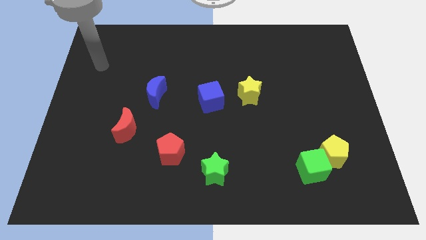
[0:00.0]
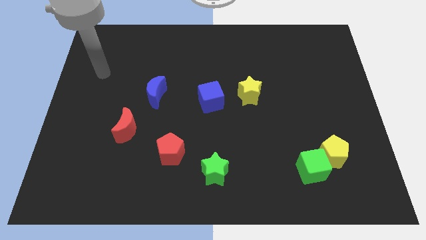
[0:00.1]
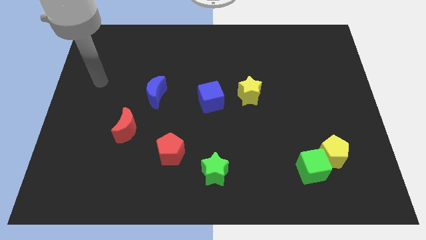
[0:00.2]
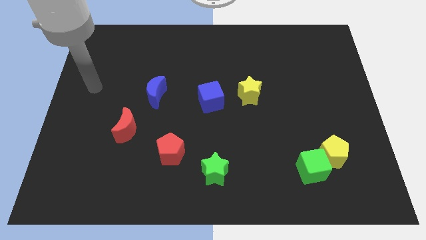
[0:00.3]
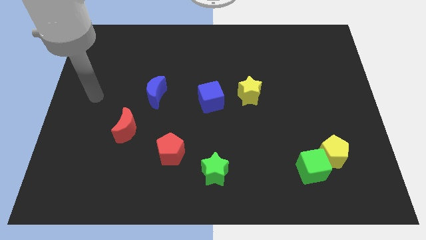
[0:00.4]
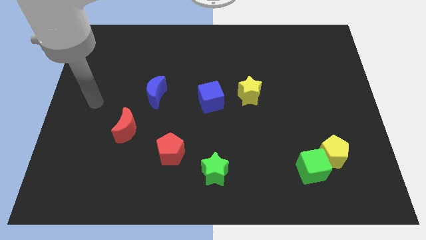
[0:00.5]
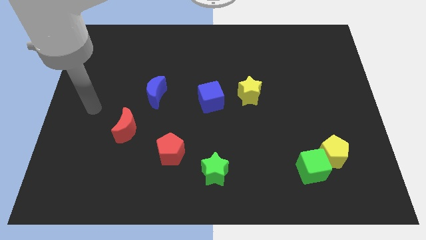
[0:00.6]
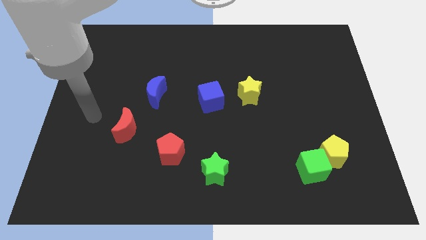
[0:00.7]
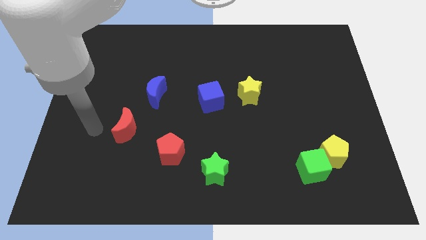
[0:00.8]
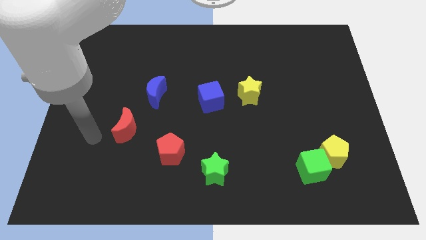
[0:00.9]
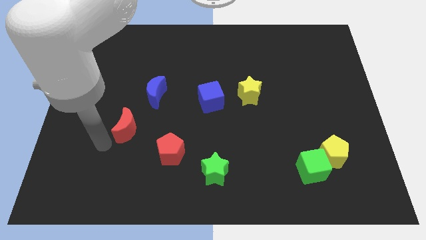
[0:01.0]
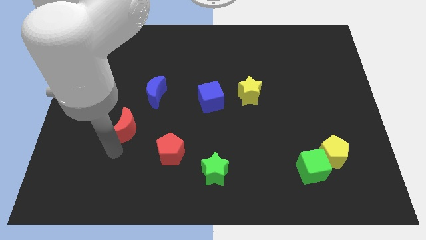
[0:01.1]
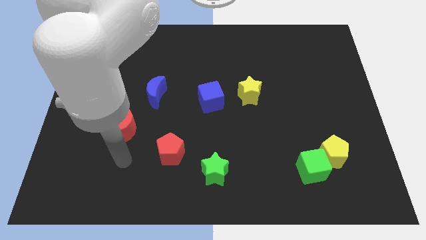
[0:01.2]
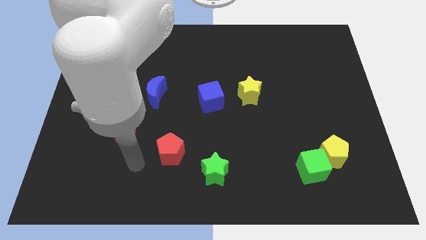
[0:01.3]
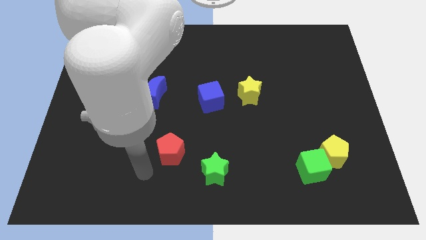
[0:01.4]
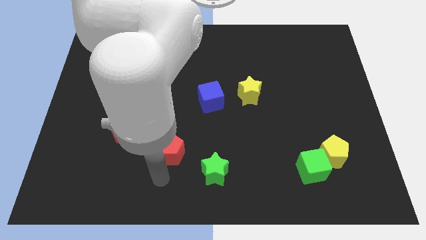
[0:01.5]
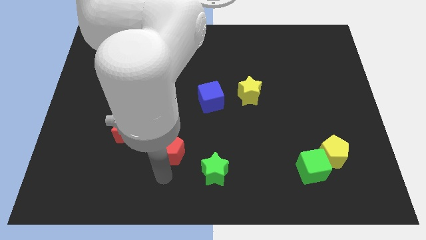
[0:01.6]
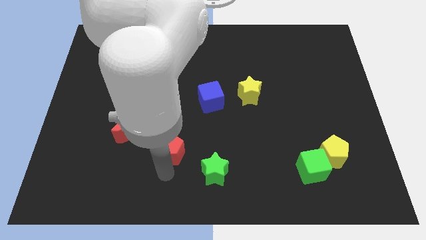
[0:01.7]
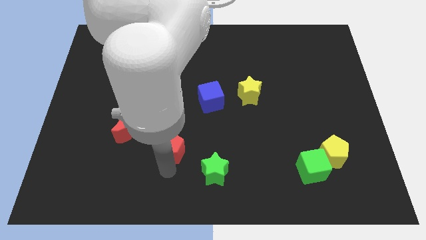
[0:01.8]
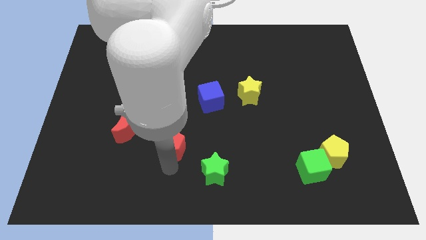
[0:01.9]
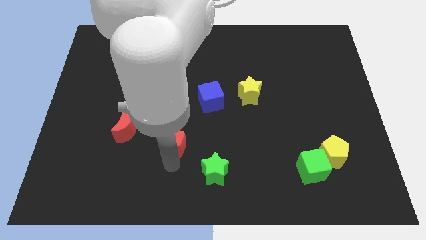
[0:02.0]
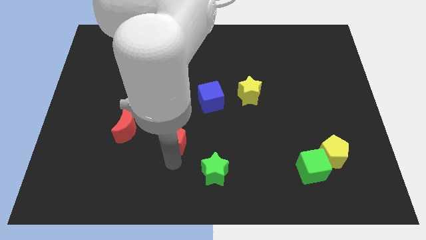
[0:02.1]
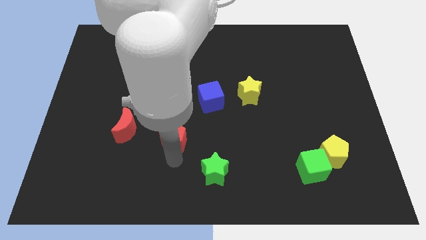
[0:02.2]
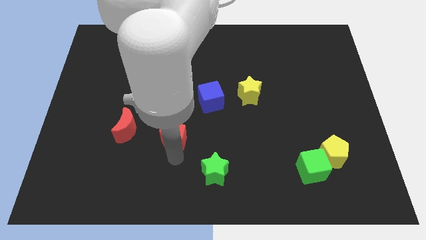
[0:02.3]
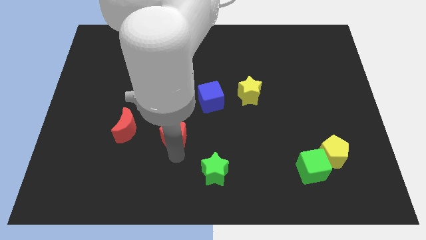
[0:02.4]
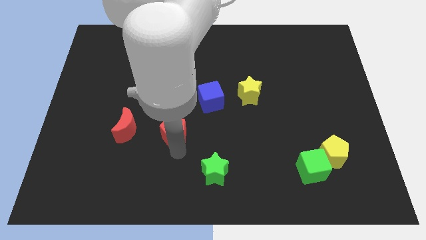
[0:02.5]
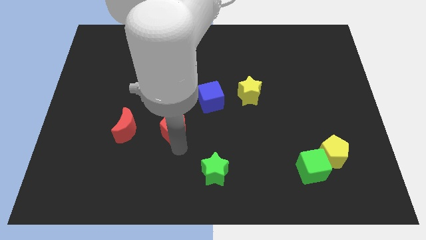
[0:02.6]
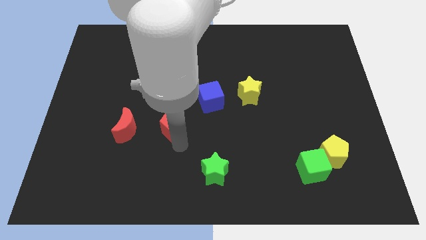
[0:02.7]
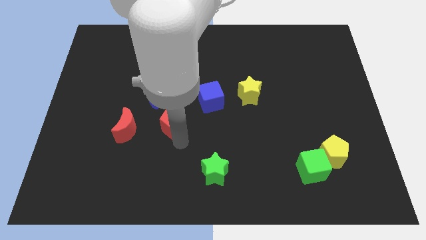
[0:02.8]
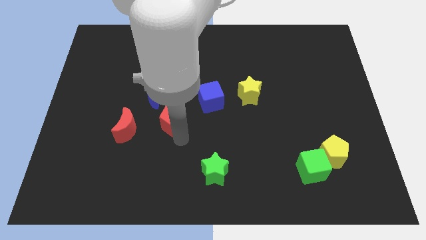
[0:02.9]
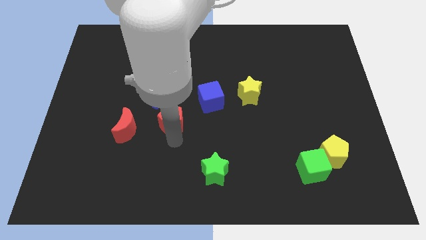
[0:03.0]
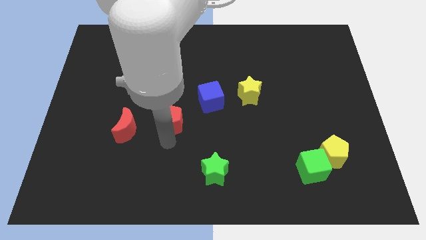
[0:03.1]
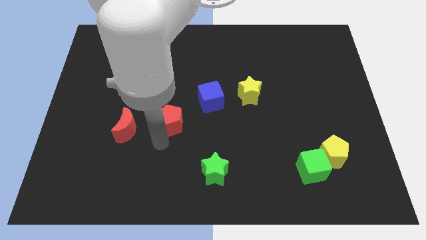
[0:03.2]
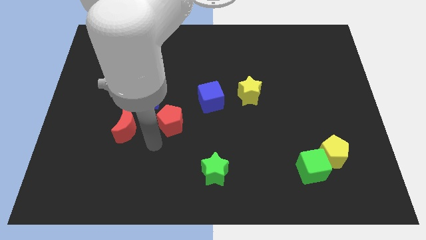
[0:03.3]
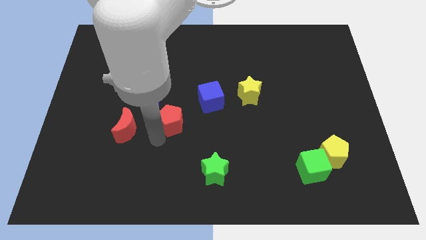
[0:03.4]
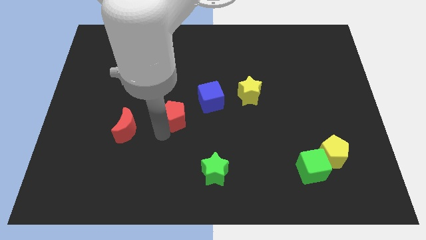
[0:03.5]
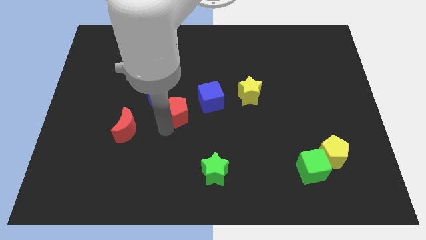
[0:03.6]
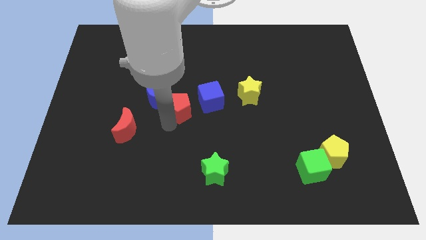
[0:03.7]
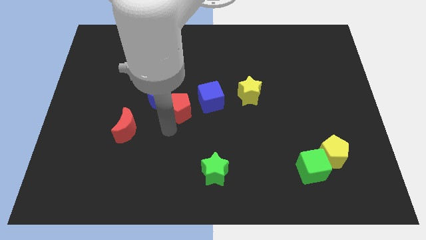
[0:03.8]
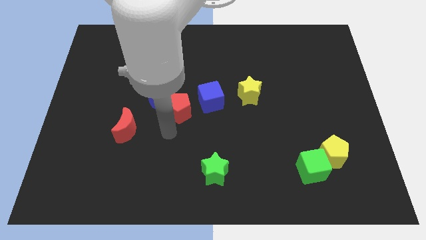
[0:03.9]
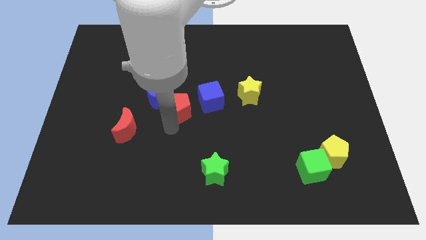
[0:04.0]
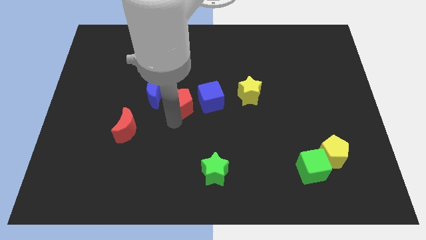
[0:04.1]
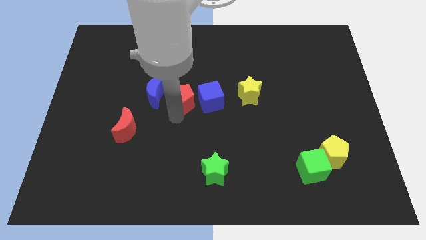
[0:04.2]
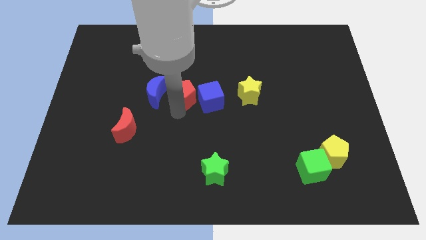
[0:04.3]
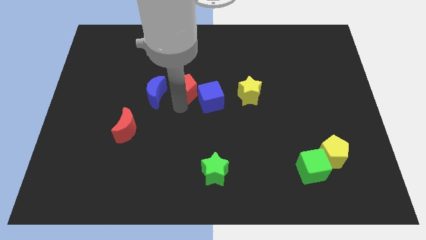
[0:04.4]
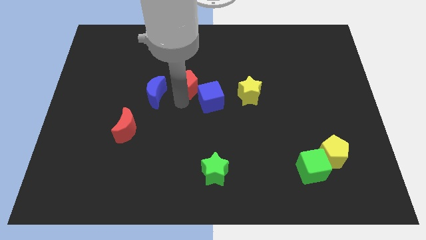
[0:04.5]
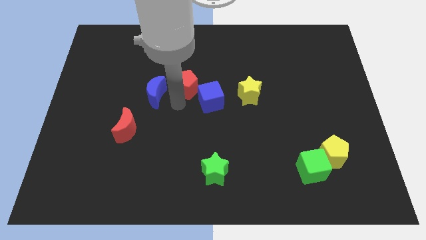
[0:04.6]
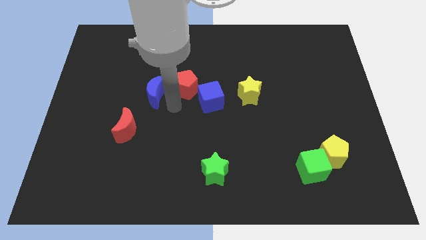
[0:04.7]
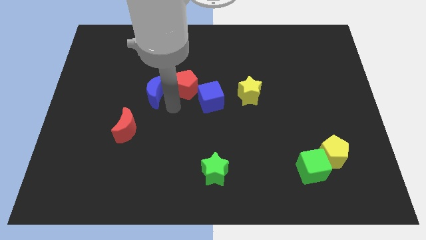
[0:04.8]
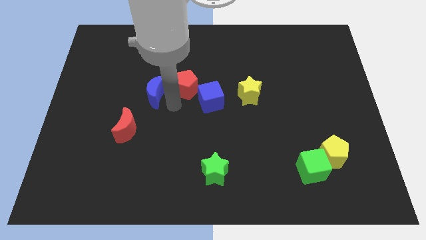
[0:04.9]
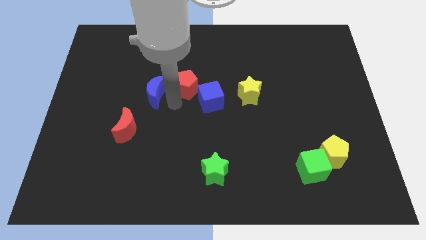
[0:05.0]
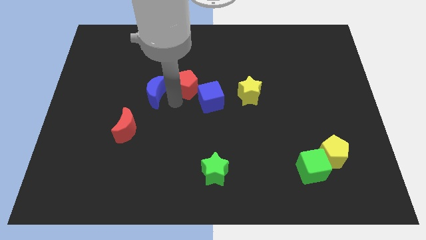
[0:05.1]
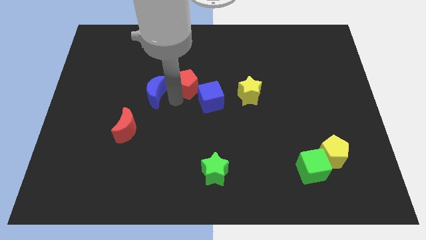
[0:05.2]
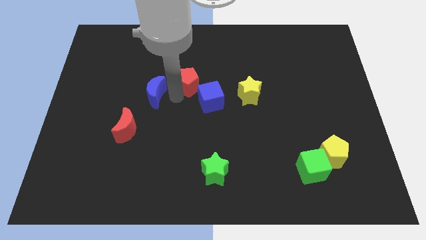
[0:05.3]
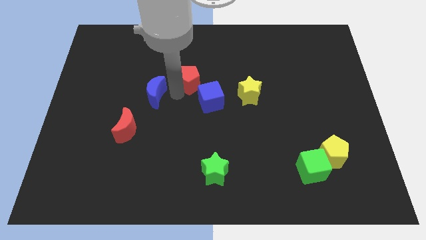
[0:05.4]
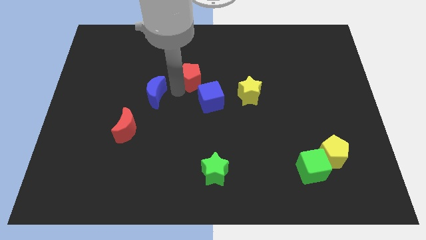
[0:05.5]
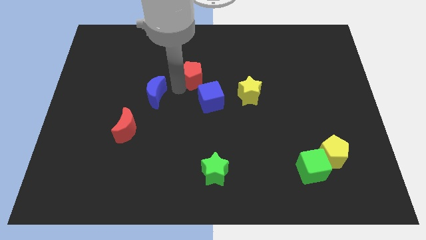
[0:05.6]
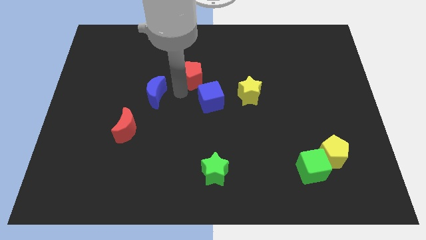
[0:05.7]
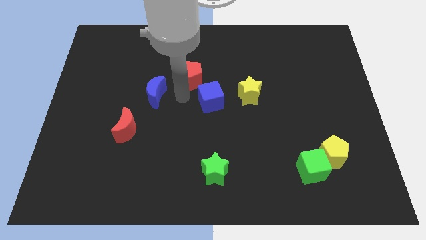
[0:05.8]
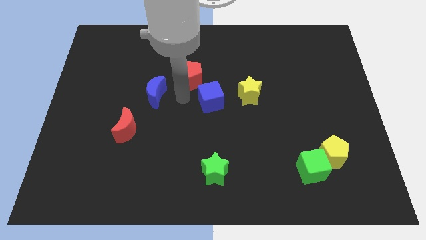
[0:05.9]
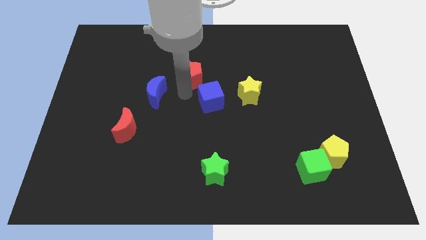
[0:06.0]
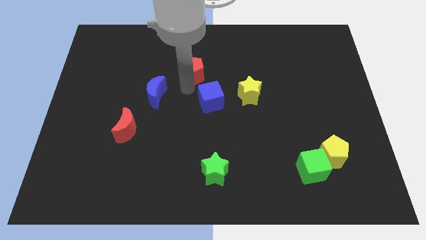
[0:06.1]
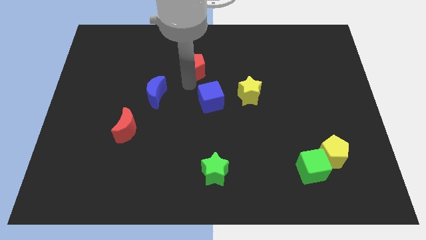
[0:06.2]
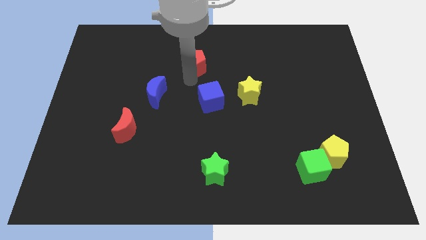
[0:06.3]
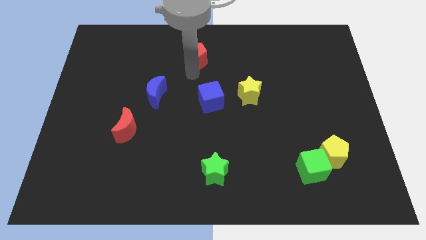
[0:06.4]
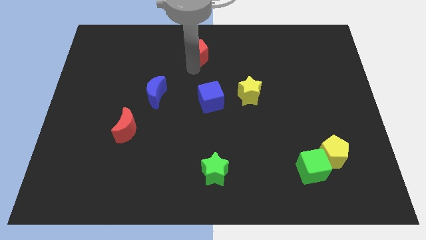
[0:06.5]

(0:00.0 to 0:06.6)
push the red pentagon to the top side
